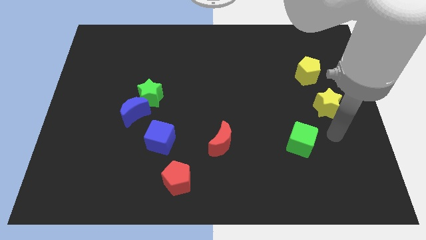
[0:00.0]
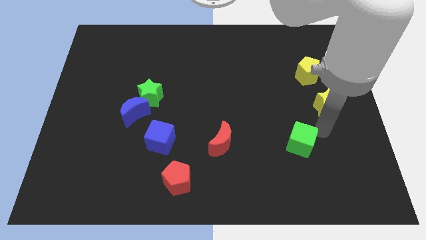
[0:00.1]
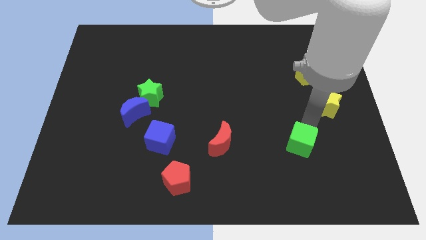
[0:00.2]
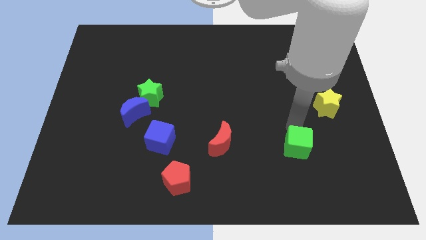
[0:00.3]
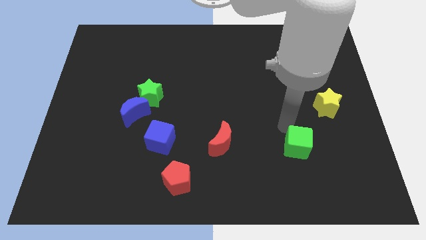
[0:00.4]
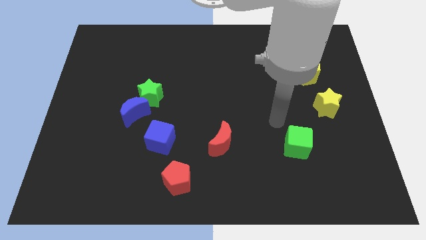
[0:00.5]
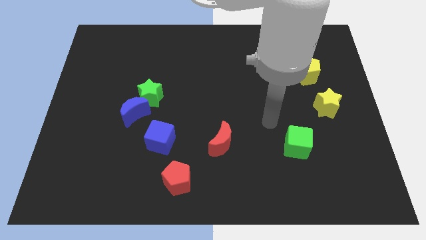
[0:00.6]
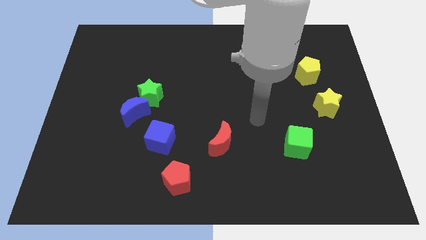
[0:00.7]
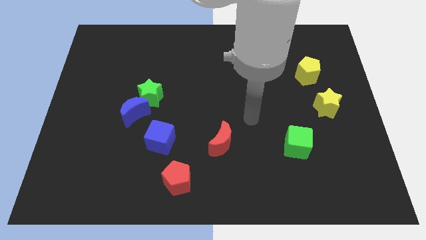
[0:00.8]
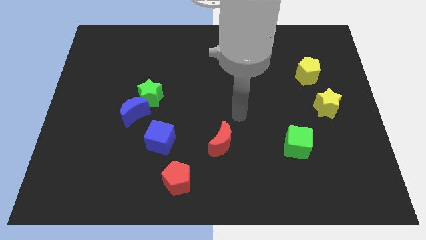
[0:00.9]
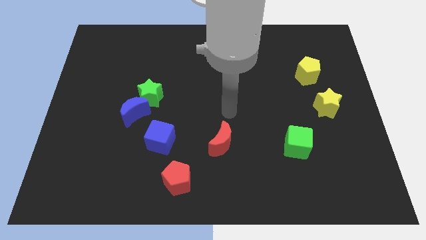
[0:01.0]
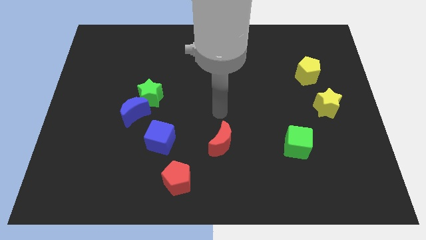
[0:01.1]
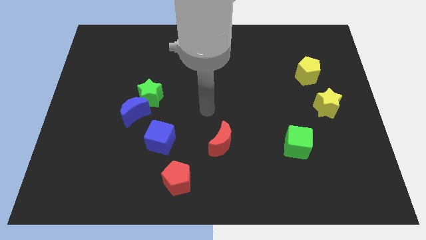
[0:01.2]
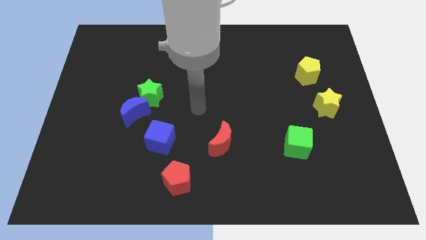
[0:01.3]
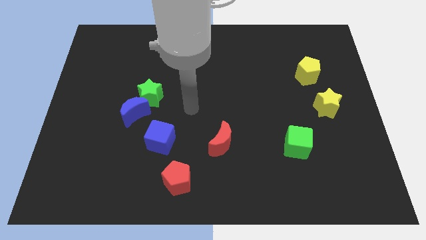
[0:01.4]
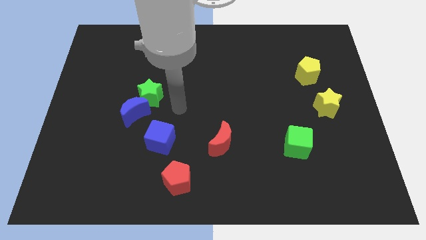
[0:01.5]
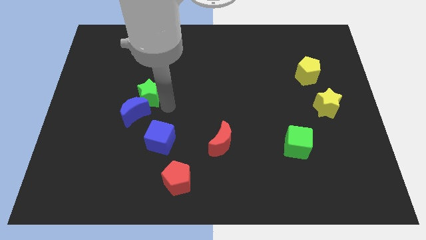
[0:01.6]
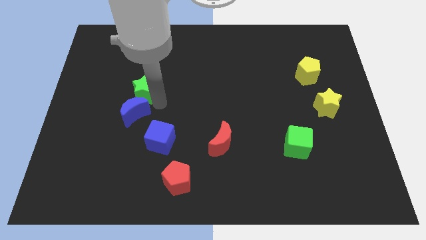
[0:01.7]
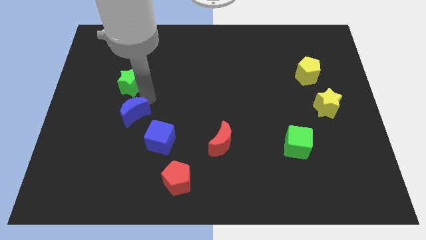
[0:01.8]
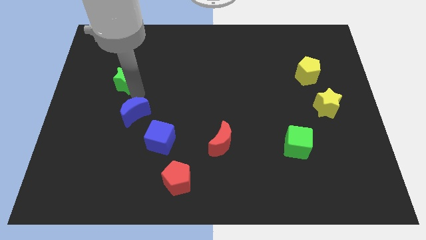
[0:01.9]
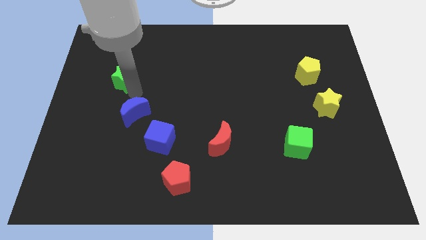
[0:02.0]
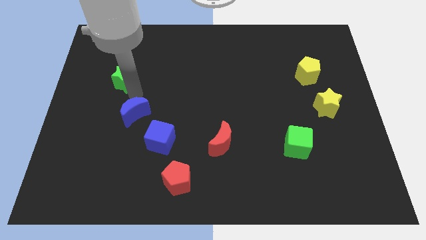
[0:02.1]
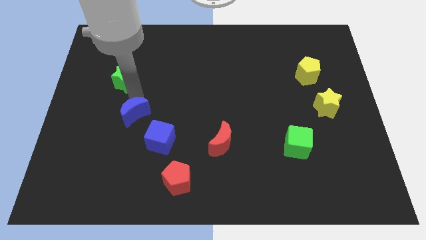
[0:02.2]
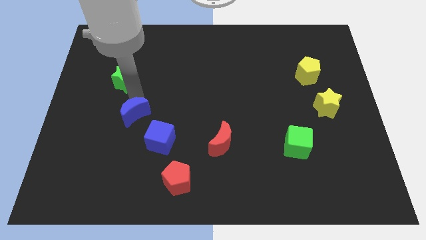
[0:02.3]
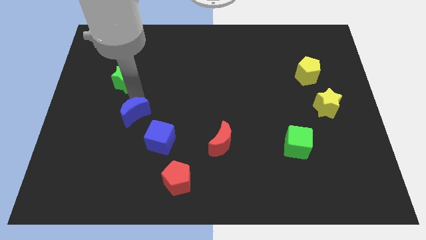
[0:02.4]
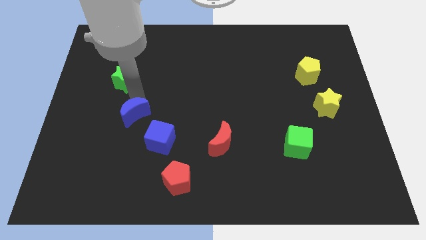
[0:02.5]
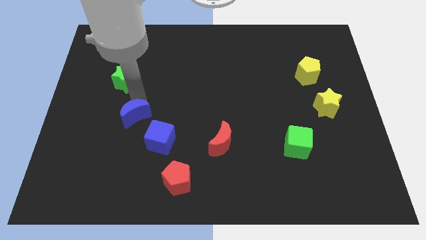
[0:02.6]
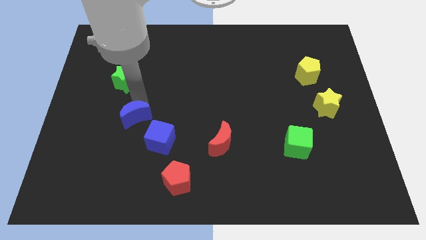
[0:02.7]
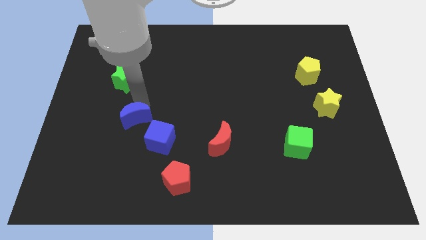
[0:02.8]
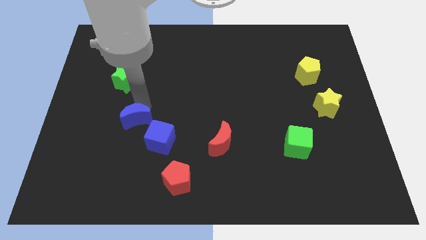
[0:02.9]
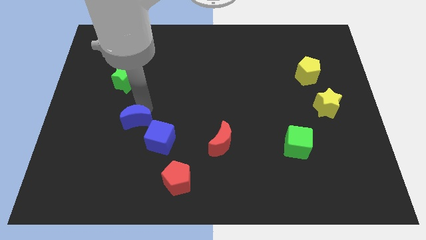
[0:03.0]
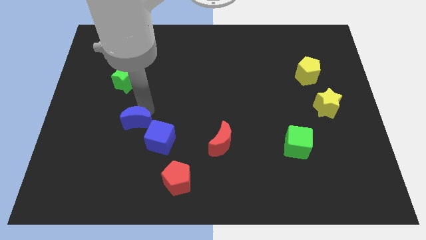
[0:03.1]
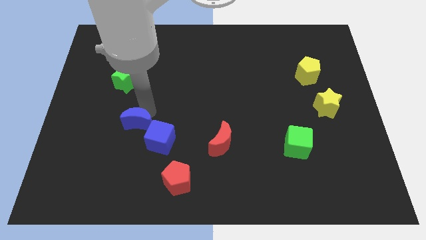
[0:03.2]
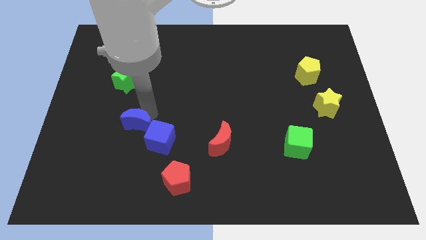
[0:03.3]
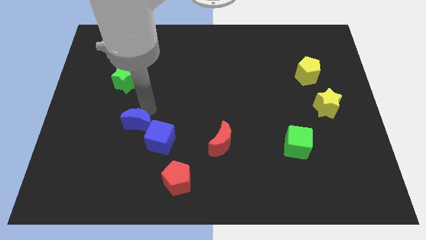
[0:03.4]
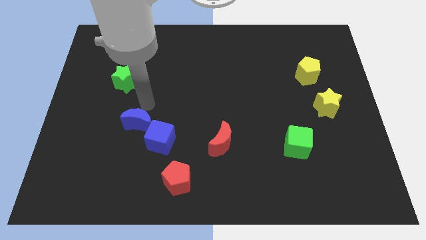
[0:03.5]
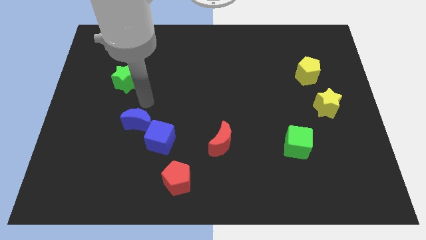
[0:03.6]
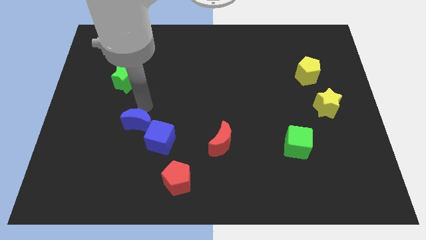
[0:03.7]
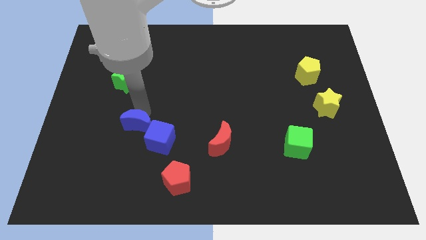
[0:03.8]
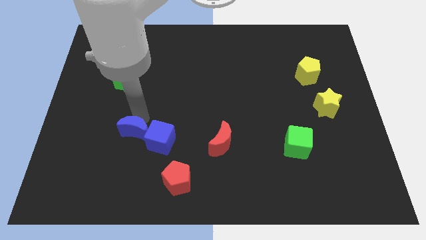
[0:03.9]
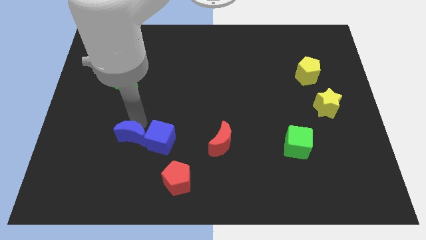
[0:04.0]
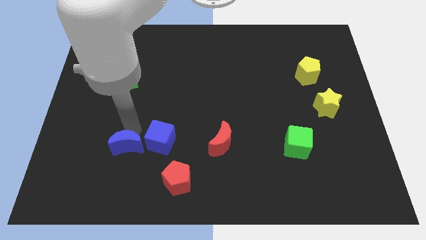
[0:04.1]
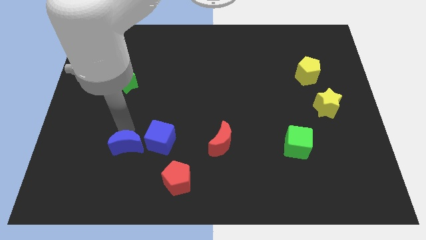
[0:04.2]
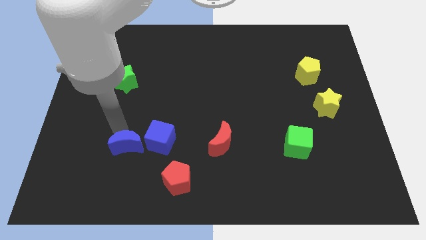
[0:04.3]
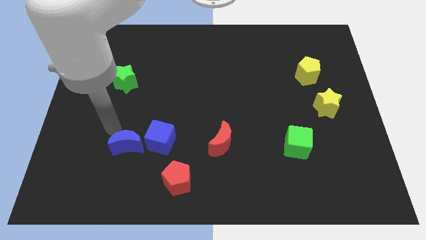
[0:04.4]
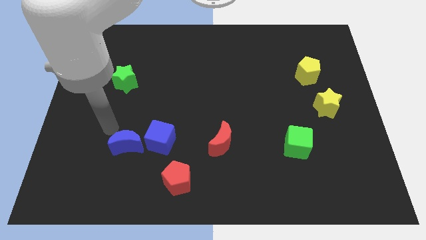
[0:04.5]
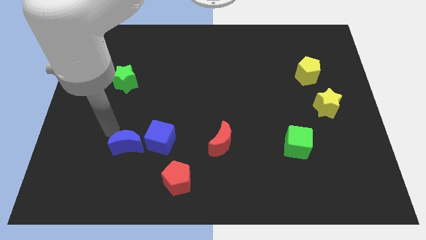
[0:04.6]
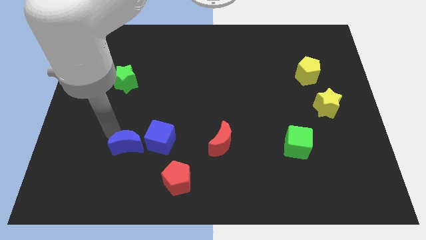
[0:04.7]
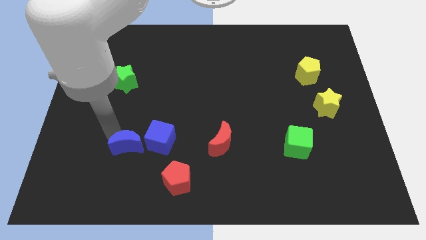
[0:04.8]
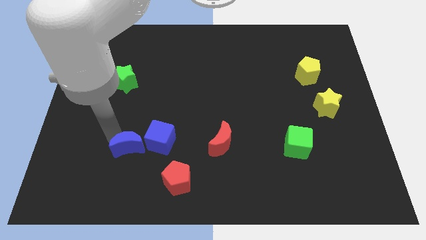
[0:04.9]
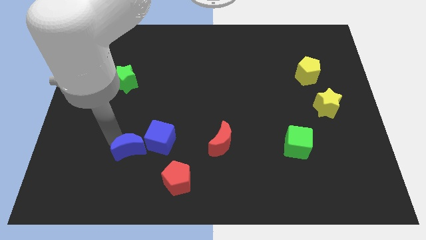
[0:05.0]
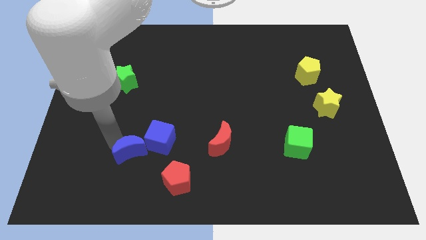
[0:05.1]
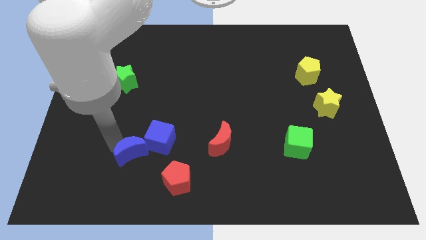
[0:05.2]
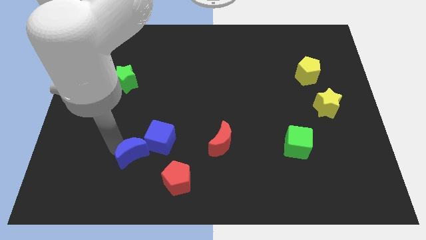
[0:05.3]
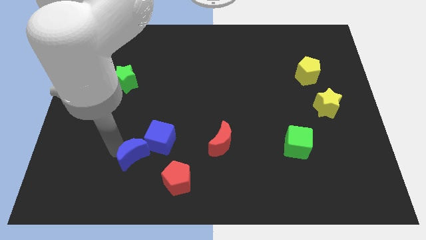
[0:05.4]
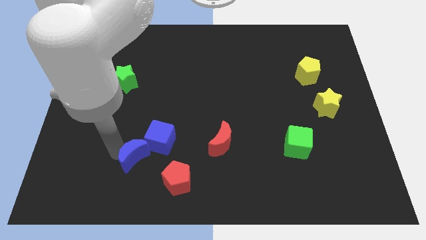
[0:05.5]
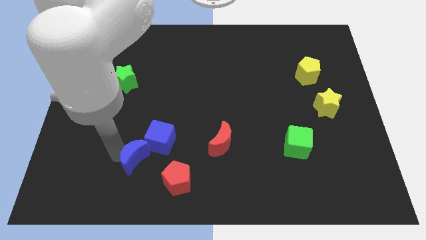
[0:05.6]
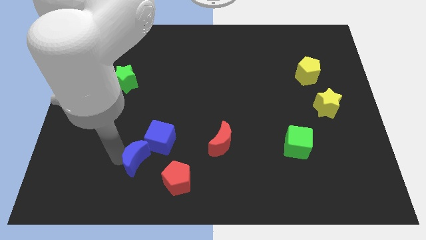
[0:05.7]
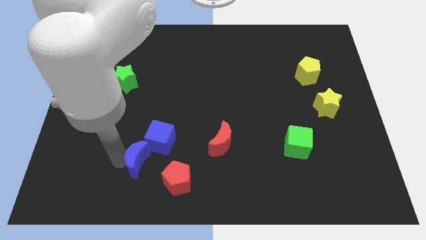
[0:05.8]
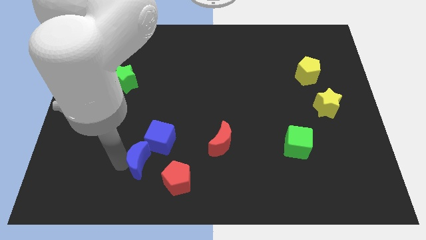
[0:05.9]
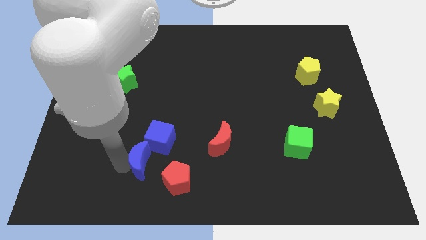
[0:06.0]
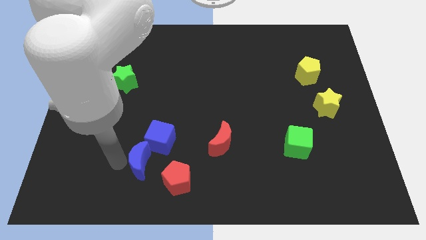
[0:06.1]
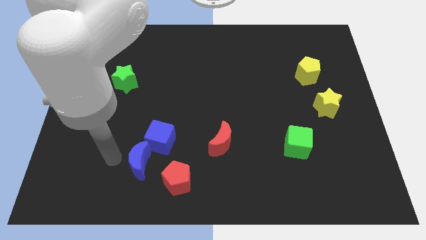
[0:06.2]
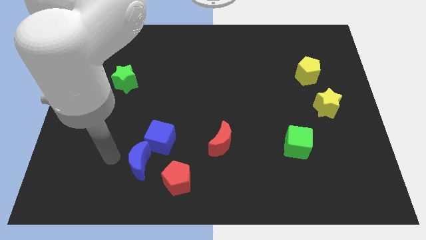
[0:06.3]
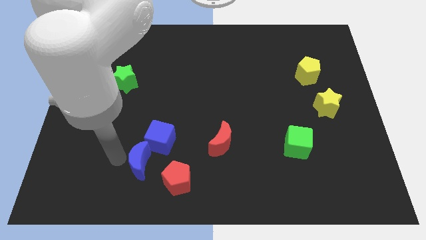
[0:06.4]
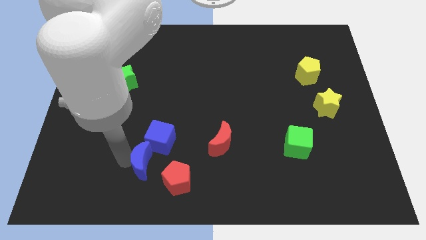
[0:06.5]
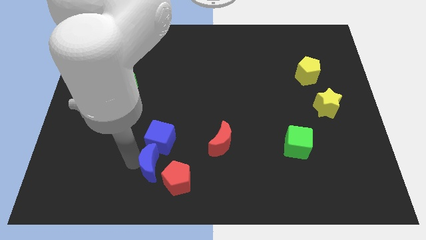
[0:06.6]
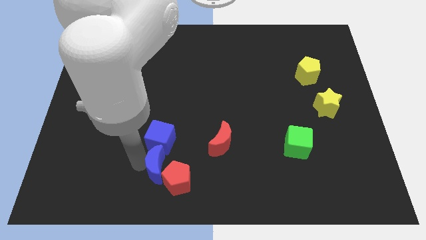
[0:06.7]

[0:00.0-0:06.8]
put the blue moon towards the red pentagon
